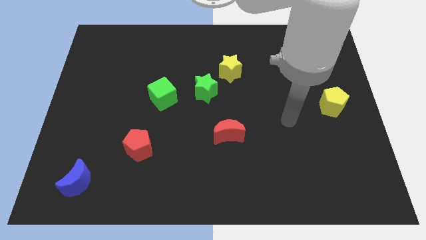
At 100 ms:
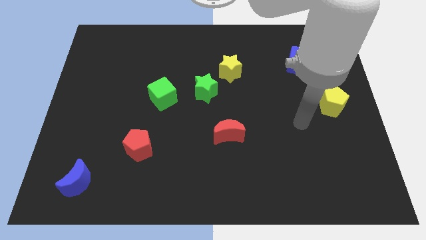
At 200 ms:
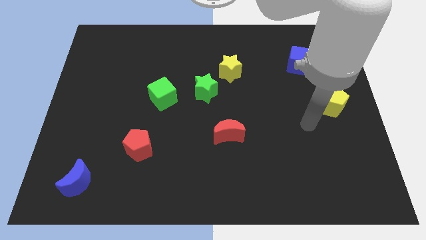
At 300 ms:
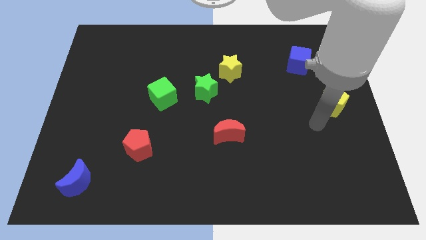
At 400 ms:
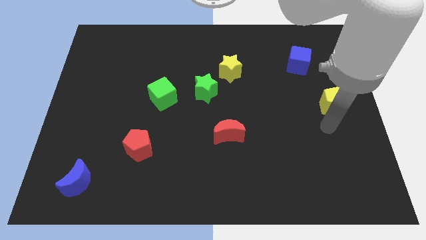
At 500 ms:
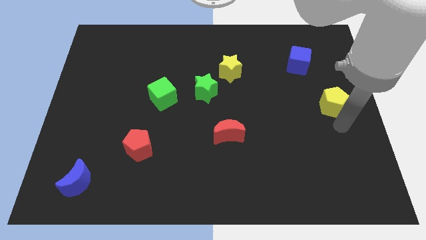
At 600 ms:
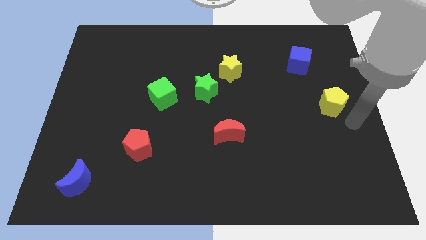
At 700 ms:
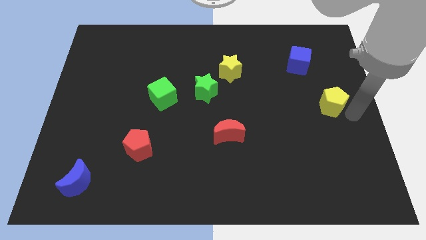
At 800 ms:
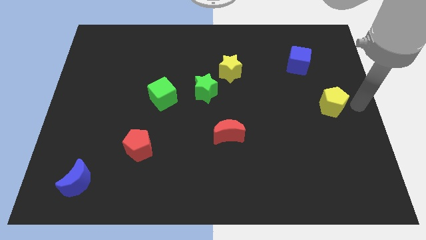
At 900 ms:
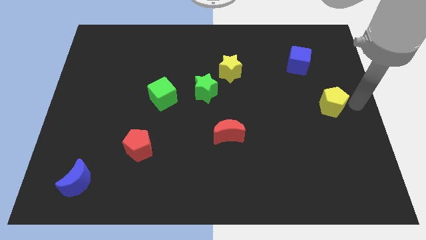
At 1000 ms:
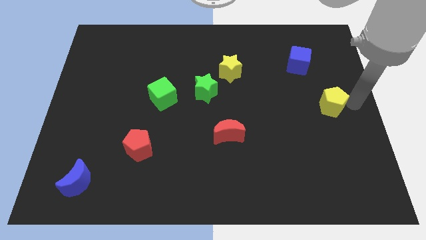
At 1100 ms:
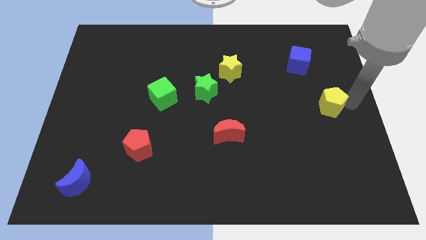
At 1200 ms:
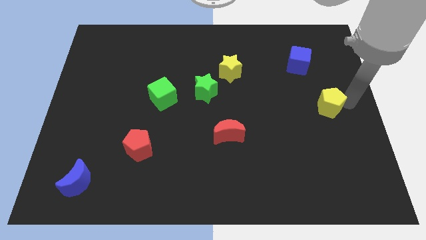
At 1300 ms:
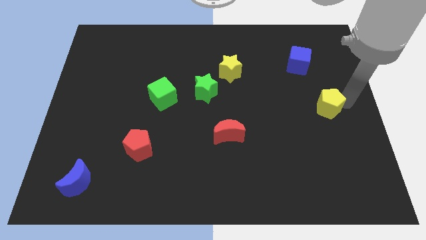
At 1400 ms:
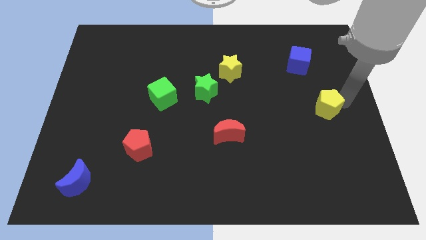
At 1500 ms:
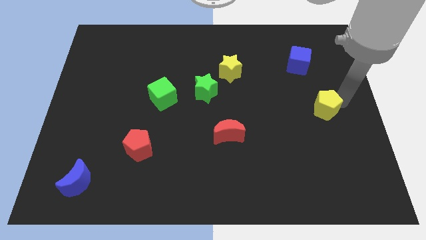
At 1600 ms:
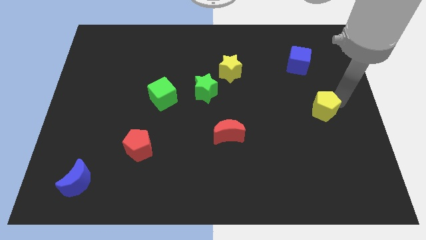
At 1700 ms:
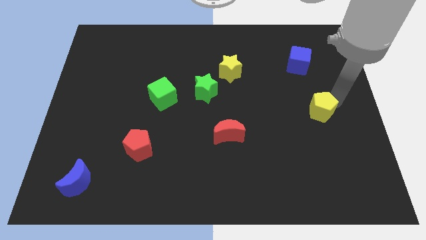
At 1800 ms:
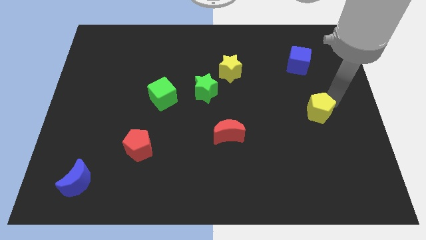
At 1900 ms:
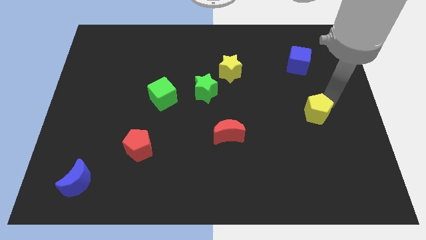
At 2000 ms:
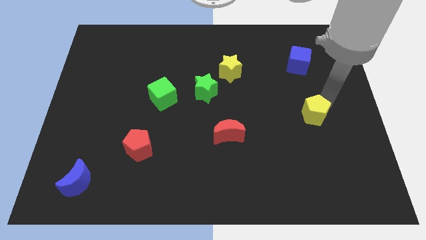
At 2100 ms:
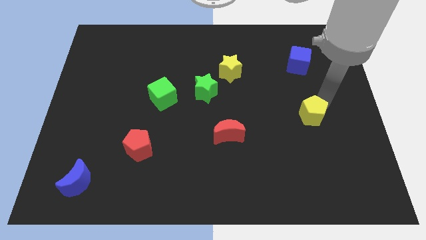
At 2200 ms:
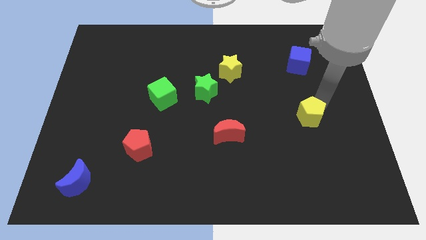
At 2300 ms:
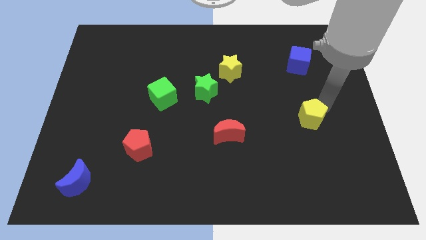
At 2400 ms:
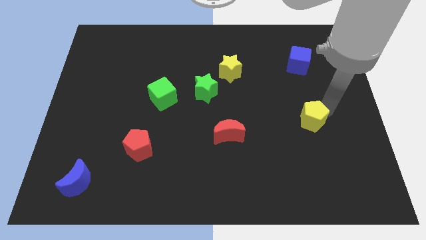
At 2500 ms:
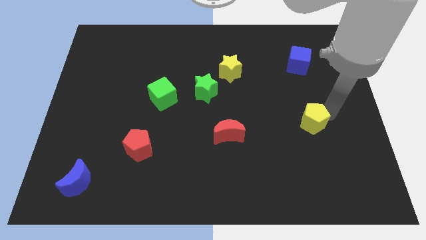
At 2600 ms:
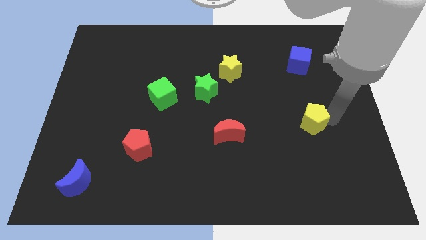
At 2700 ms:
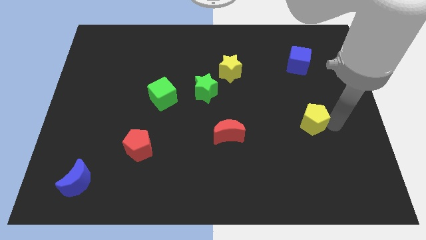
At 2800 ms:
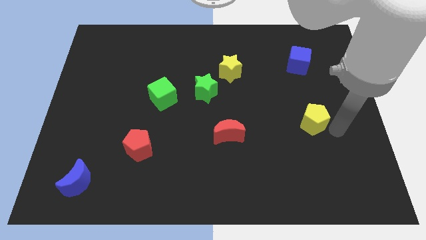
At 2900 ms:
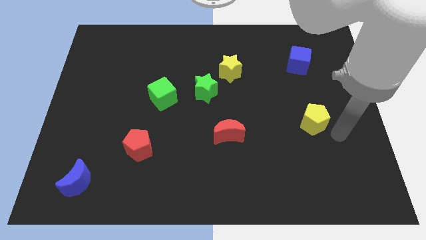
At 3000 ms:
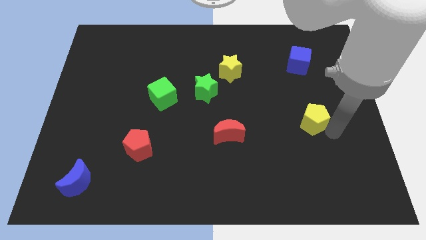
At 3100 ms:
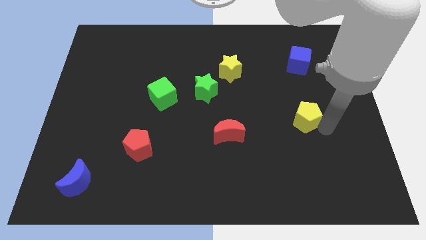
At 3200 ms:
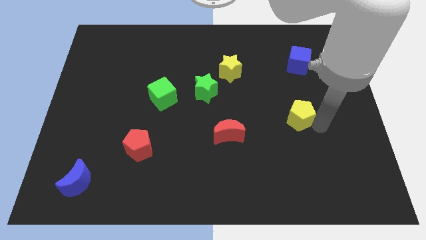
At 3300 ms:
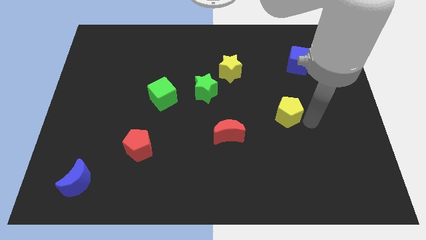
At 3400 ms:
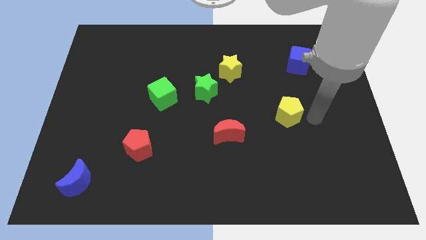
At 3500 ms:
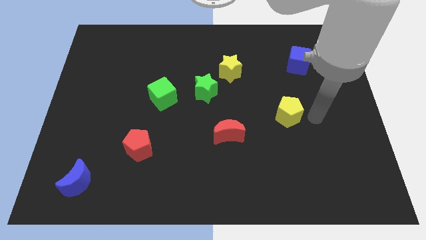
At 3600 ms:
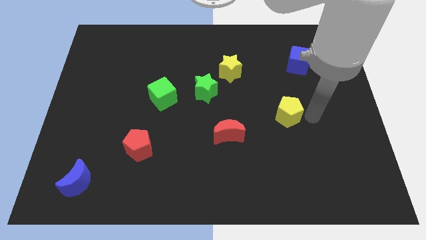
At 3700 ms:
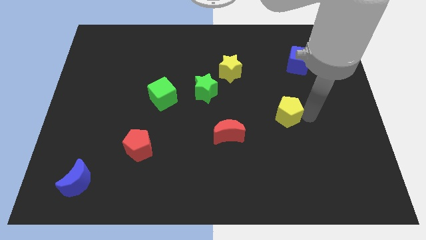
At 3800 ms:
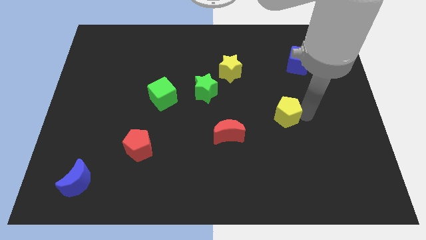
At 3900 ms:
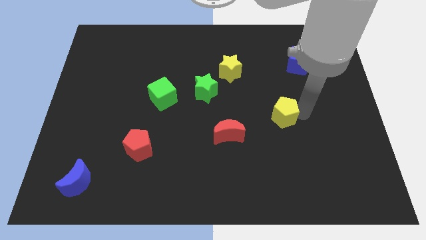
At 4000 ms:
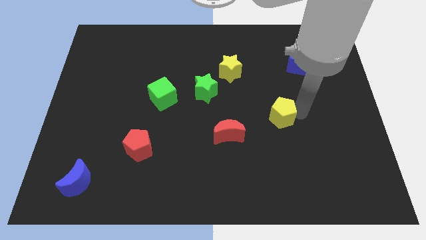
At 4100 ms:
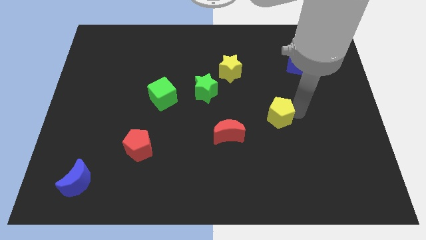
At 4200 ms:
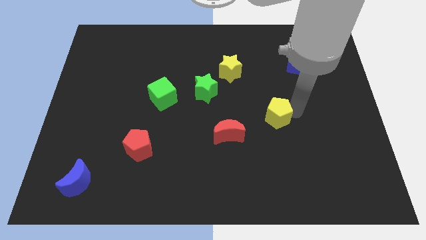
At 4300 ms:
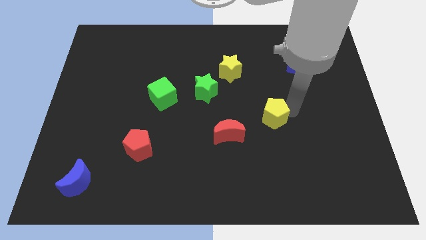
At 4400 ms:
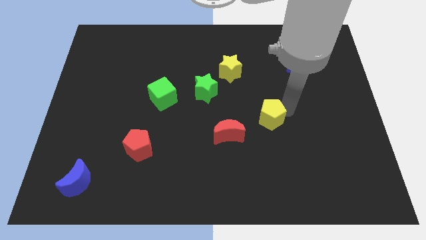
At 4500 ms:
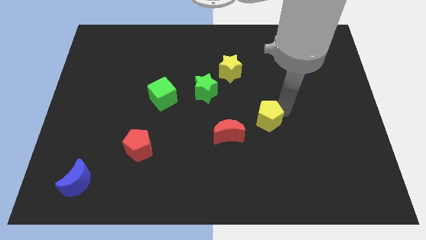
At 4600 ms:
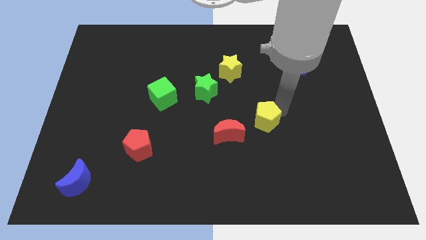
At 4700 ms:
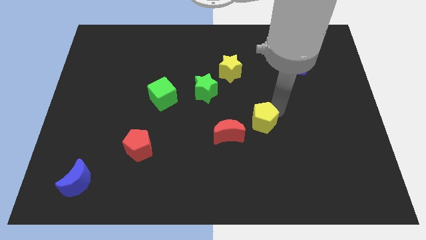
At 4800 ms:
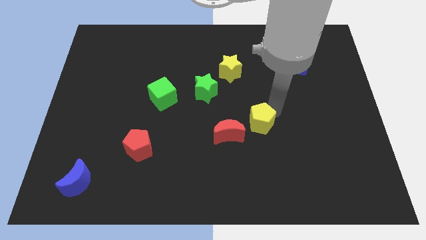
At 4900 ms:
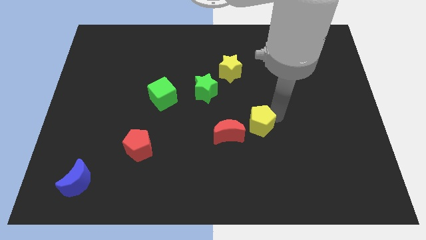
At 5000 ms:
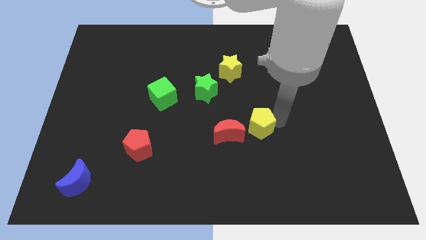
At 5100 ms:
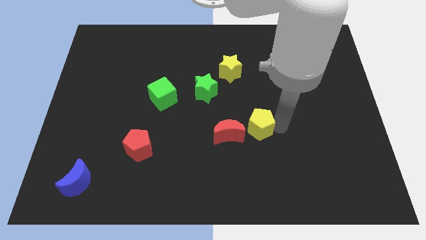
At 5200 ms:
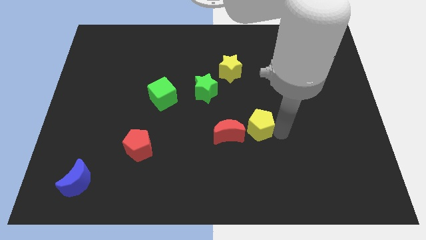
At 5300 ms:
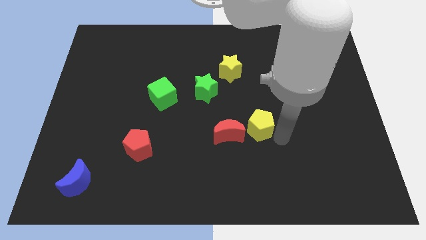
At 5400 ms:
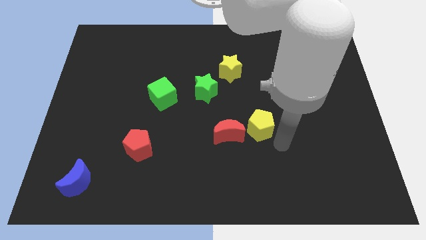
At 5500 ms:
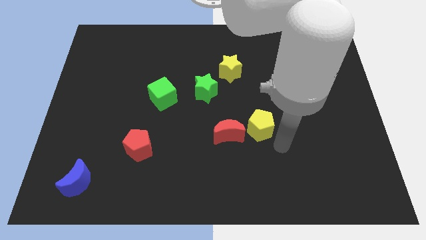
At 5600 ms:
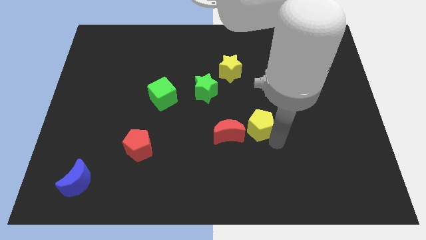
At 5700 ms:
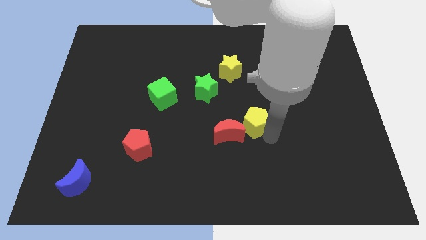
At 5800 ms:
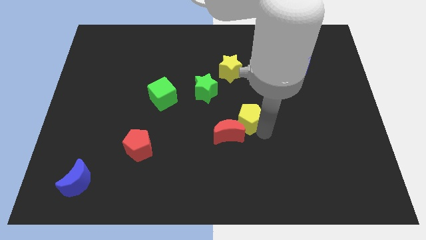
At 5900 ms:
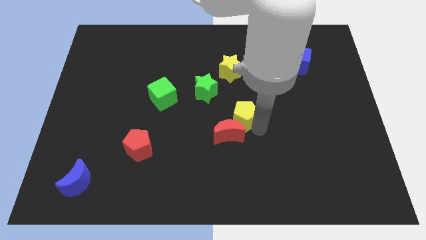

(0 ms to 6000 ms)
push the yellow pentagon left

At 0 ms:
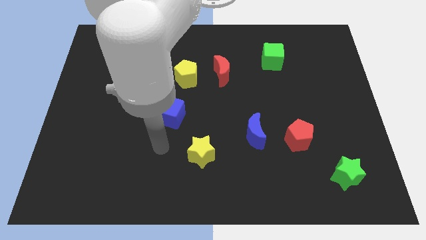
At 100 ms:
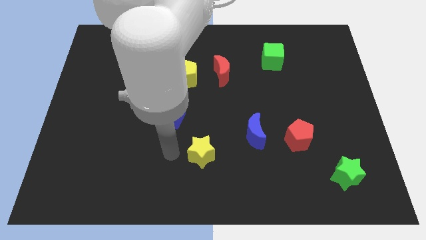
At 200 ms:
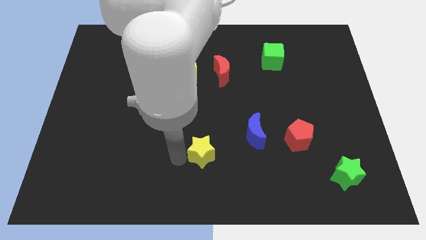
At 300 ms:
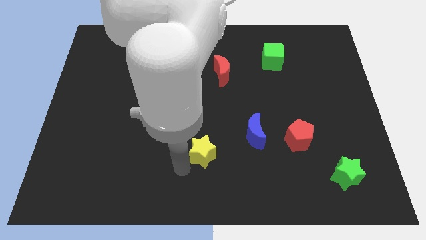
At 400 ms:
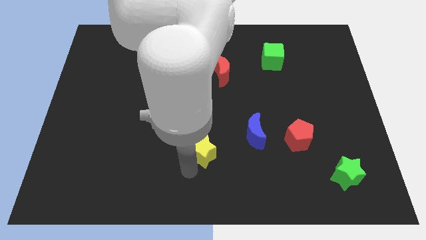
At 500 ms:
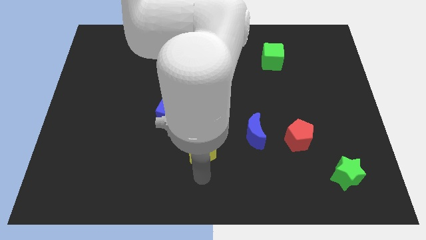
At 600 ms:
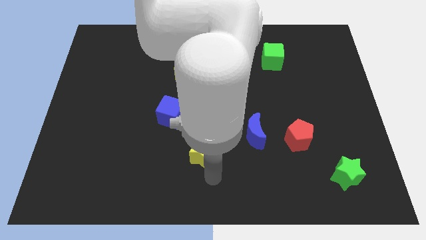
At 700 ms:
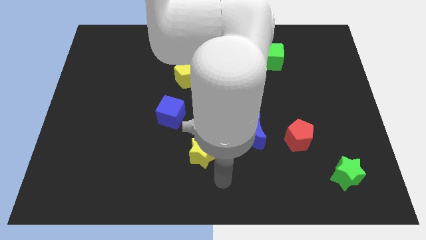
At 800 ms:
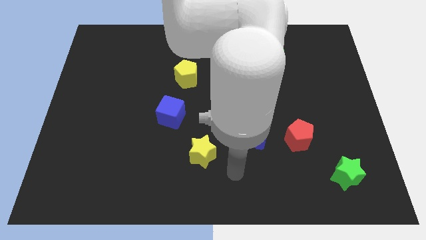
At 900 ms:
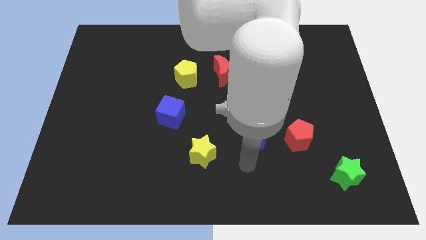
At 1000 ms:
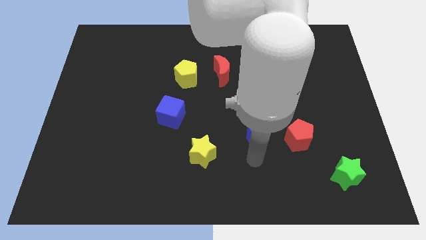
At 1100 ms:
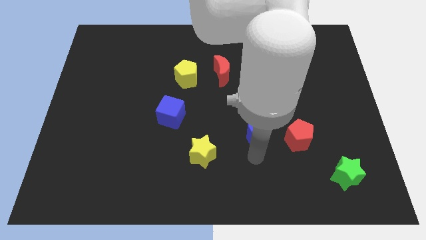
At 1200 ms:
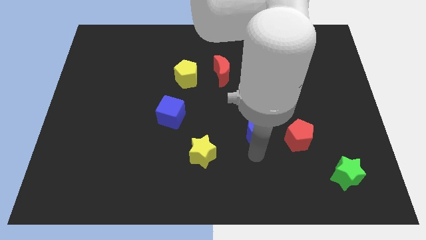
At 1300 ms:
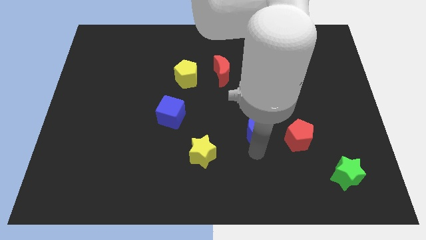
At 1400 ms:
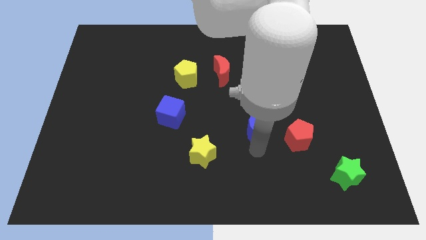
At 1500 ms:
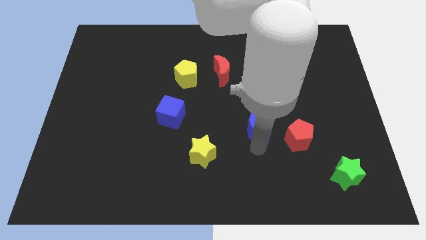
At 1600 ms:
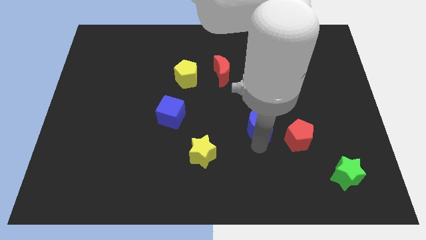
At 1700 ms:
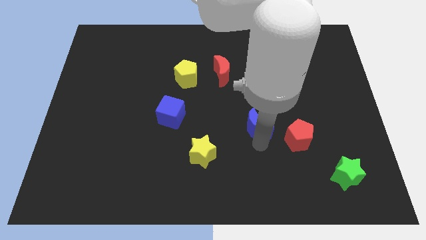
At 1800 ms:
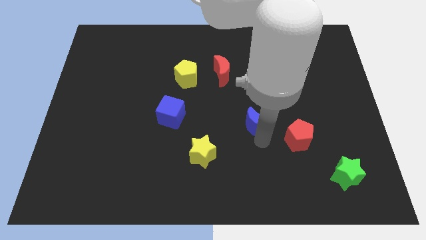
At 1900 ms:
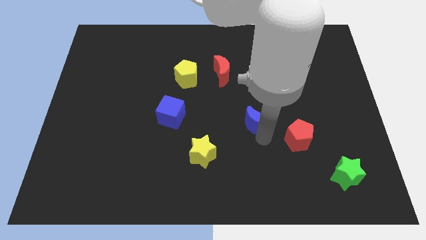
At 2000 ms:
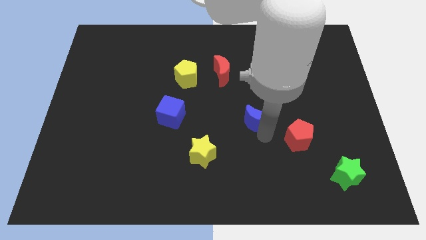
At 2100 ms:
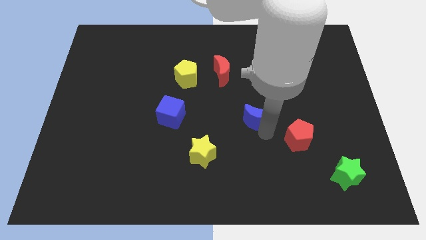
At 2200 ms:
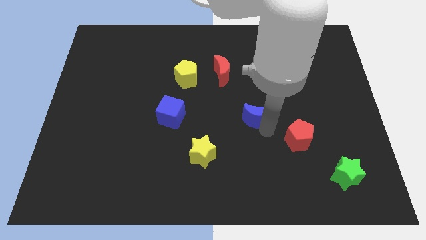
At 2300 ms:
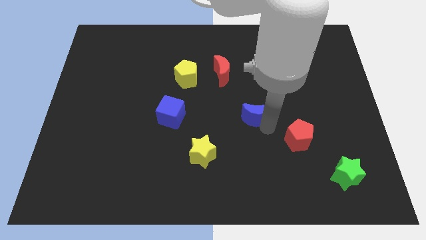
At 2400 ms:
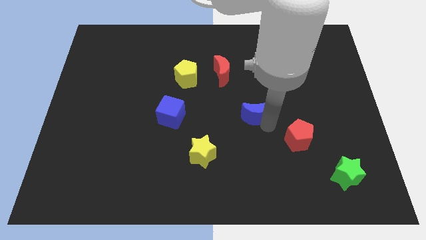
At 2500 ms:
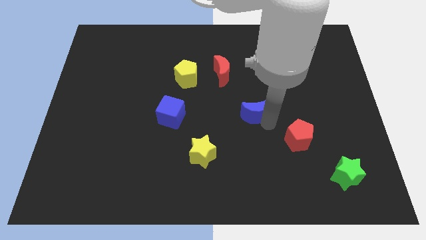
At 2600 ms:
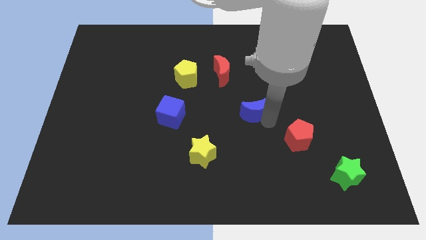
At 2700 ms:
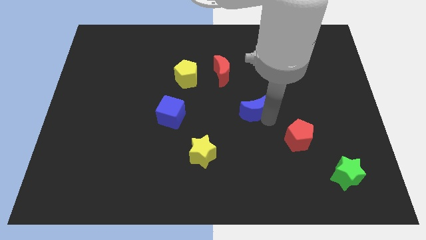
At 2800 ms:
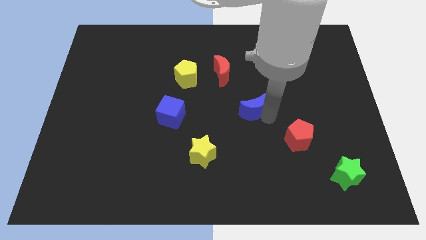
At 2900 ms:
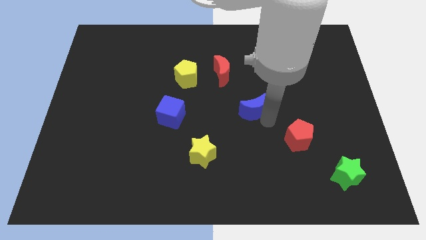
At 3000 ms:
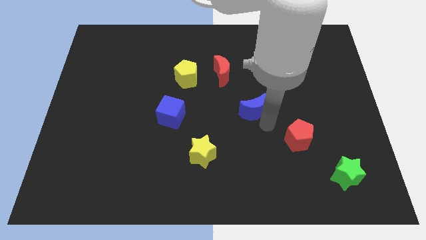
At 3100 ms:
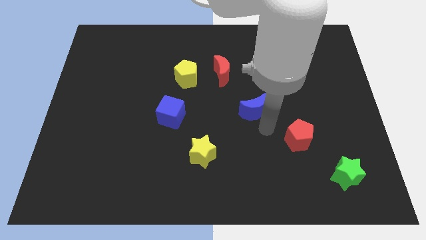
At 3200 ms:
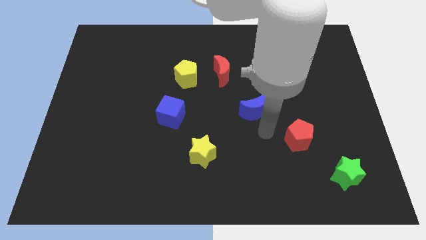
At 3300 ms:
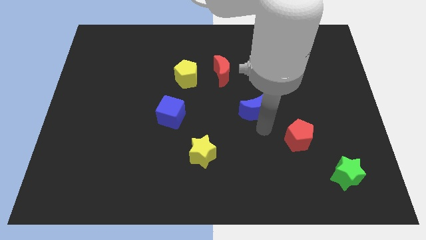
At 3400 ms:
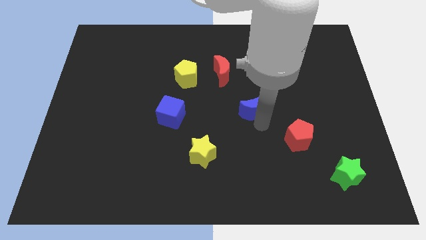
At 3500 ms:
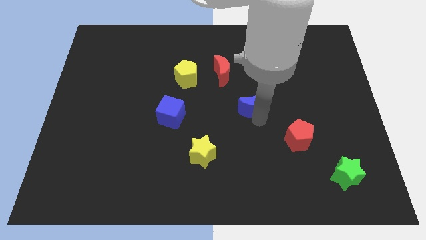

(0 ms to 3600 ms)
slide the blue moon up slightly
